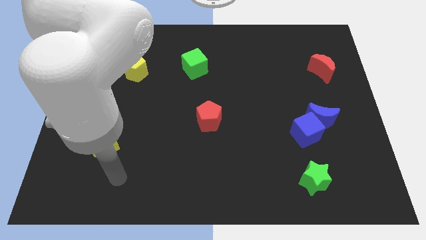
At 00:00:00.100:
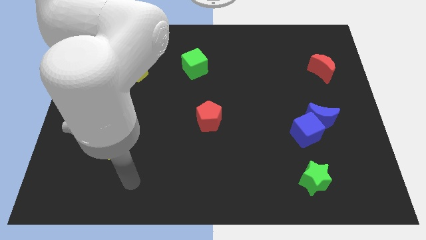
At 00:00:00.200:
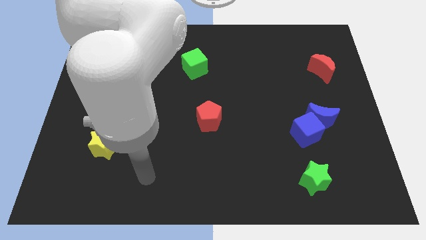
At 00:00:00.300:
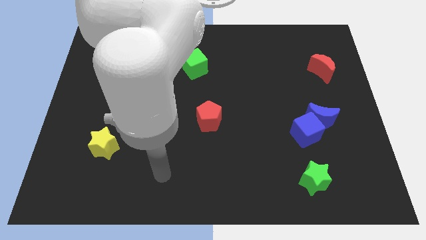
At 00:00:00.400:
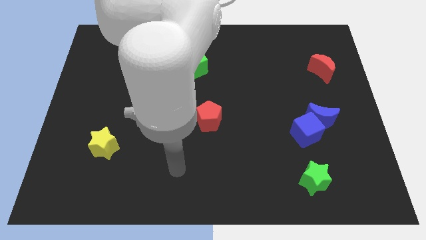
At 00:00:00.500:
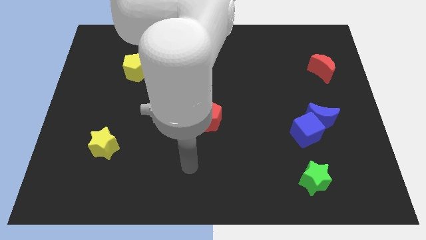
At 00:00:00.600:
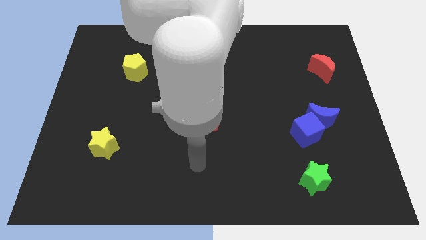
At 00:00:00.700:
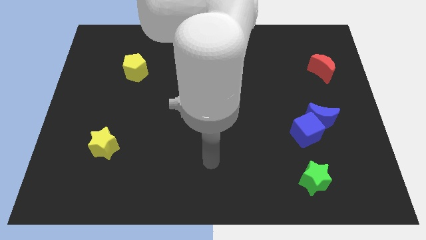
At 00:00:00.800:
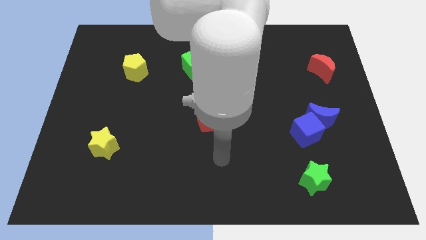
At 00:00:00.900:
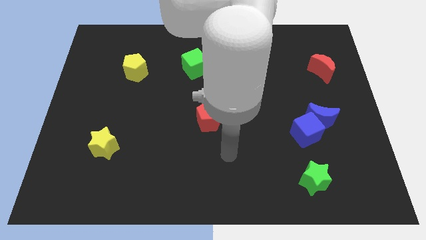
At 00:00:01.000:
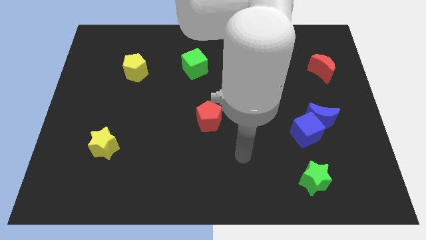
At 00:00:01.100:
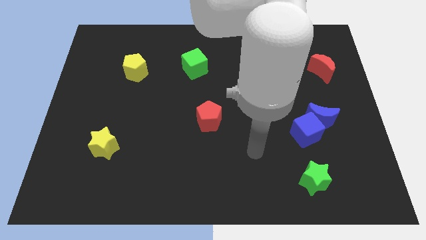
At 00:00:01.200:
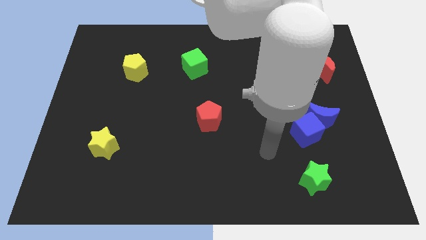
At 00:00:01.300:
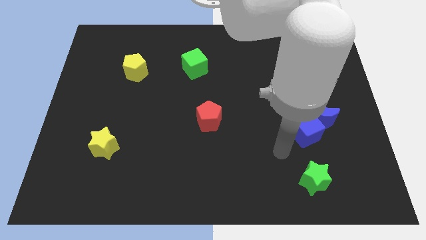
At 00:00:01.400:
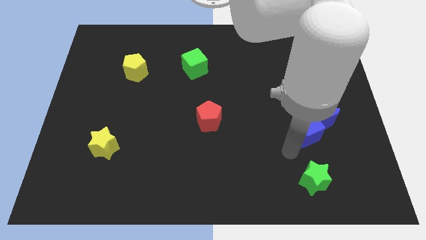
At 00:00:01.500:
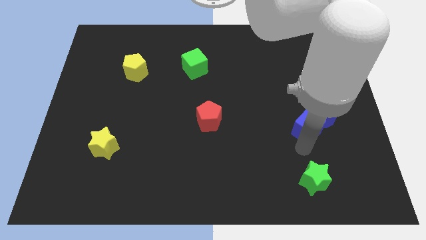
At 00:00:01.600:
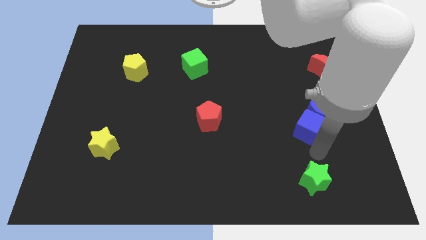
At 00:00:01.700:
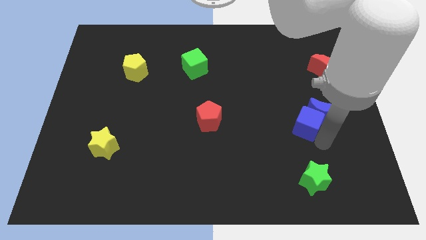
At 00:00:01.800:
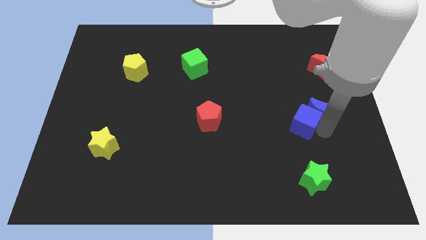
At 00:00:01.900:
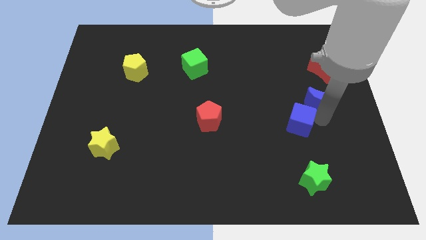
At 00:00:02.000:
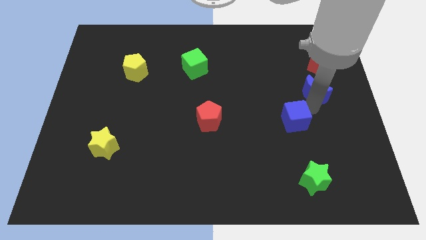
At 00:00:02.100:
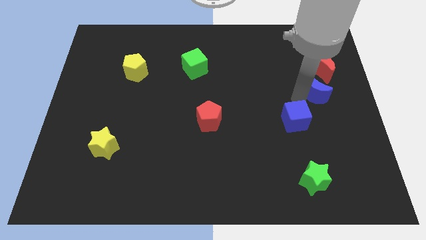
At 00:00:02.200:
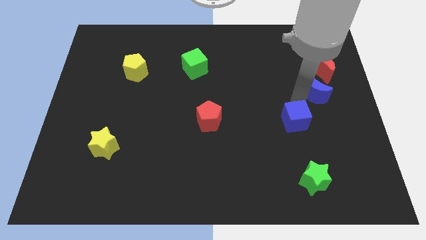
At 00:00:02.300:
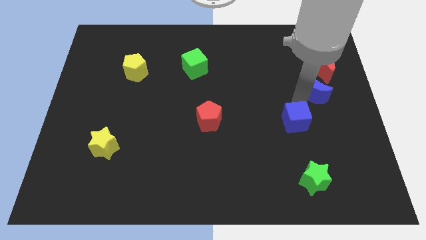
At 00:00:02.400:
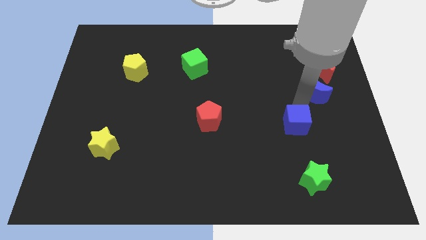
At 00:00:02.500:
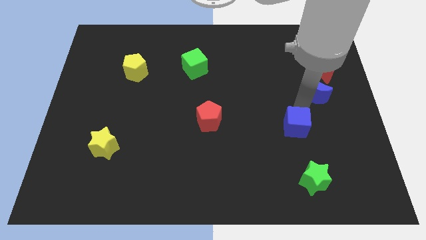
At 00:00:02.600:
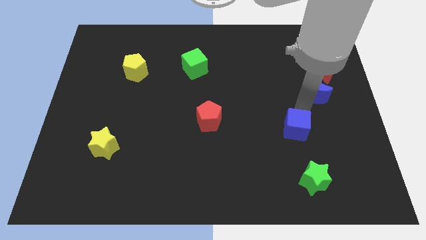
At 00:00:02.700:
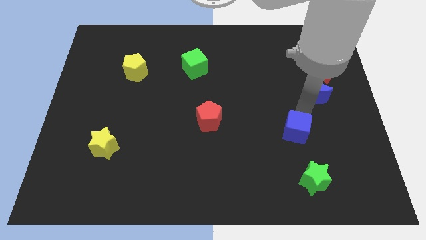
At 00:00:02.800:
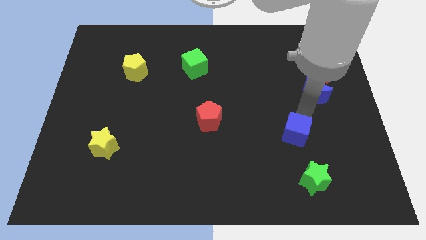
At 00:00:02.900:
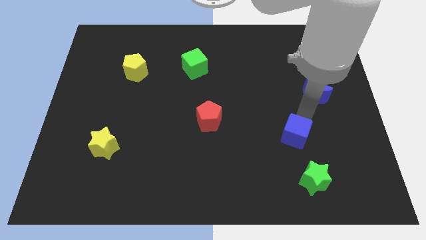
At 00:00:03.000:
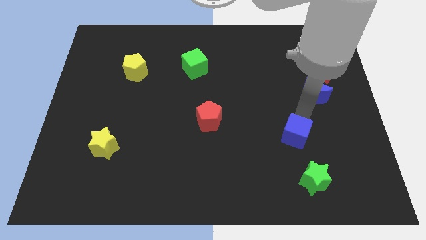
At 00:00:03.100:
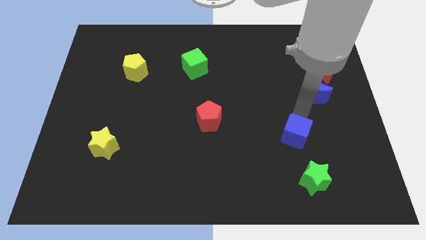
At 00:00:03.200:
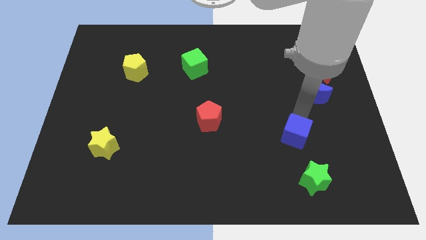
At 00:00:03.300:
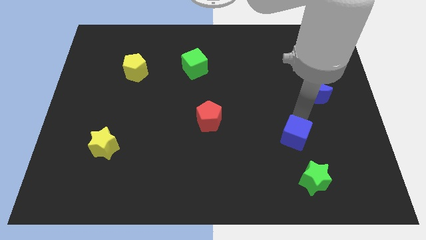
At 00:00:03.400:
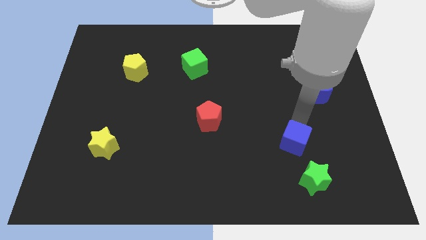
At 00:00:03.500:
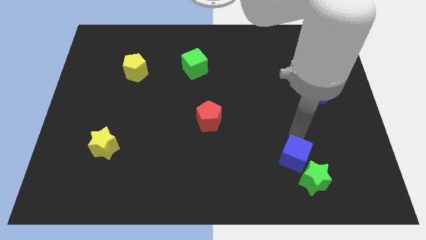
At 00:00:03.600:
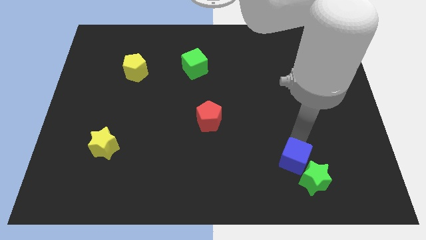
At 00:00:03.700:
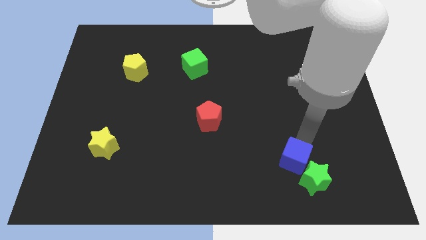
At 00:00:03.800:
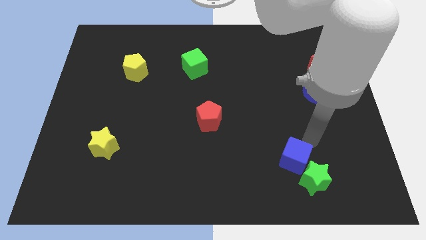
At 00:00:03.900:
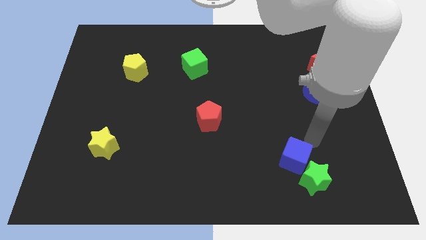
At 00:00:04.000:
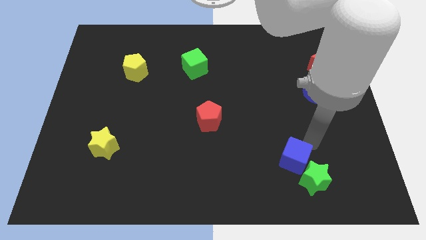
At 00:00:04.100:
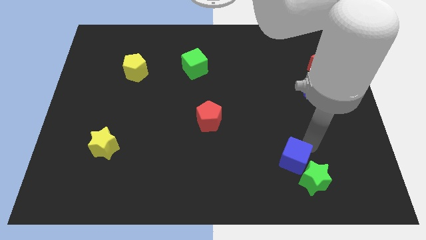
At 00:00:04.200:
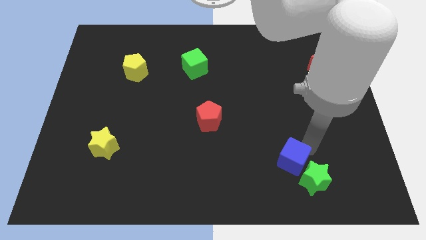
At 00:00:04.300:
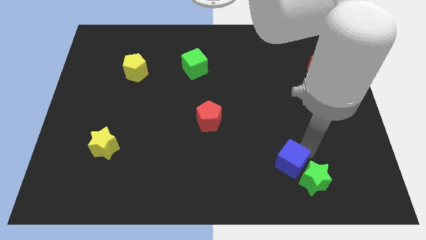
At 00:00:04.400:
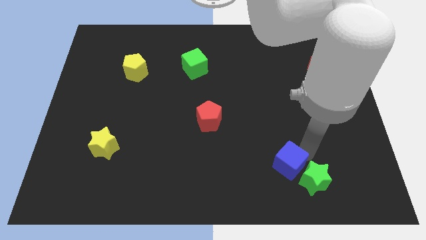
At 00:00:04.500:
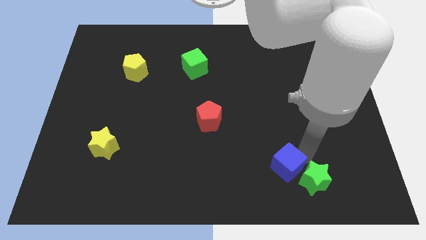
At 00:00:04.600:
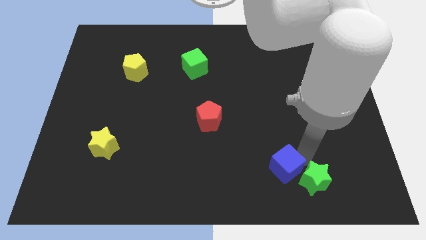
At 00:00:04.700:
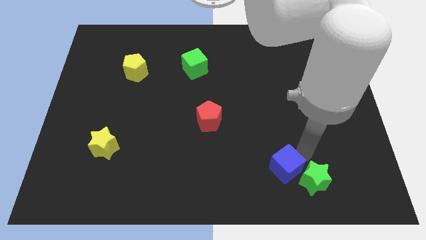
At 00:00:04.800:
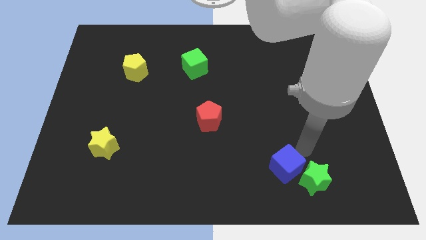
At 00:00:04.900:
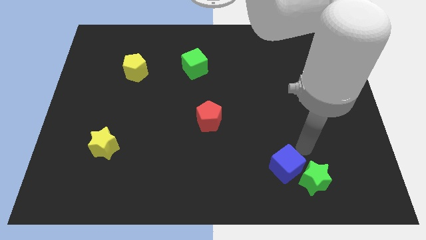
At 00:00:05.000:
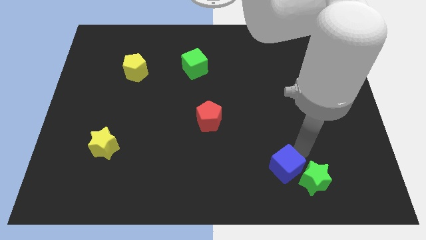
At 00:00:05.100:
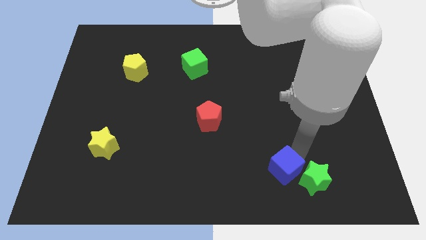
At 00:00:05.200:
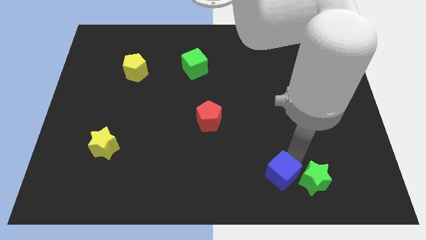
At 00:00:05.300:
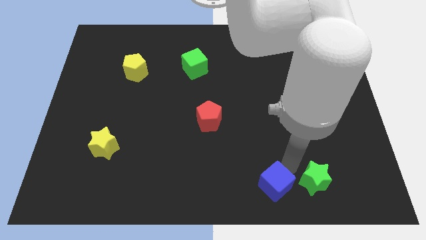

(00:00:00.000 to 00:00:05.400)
move the blue cube to the bottom

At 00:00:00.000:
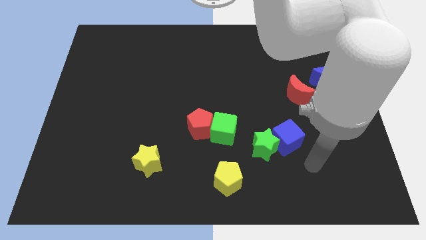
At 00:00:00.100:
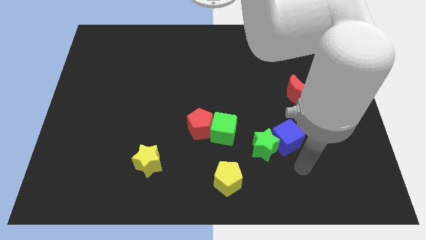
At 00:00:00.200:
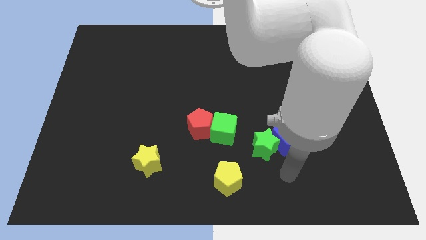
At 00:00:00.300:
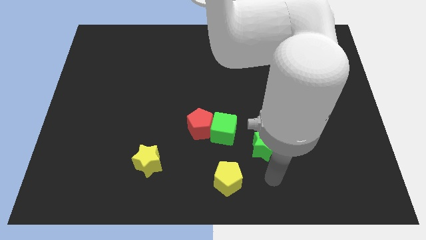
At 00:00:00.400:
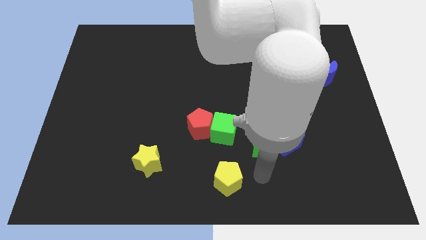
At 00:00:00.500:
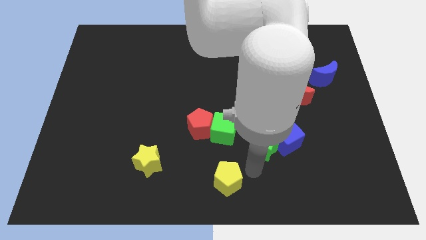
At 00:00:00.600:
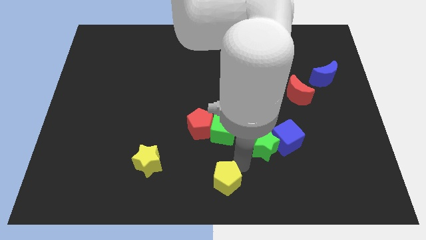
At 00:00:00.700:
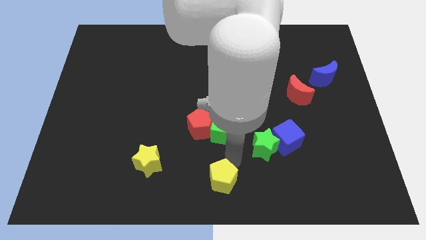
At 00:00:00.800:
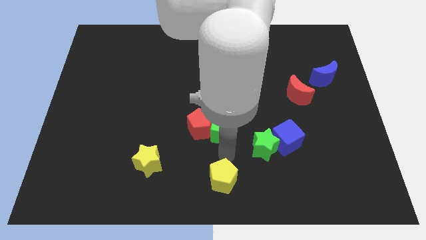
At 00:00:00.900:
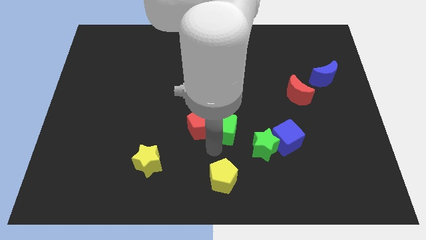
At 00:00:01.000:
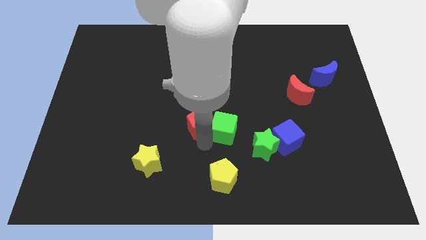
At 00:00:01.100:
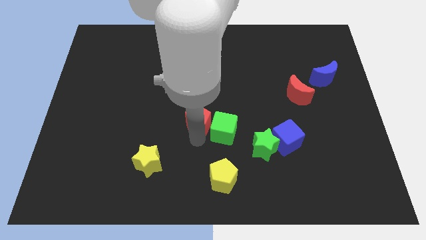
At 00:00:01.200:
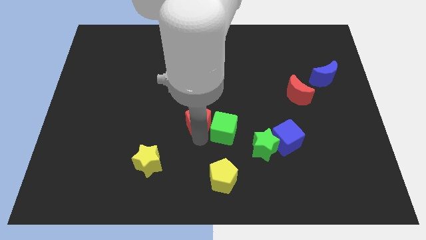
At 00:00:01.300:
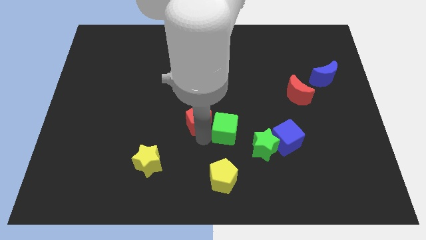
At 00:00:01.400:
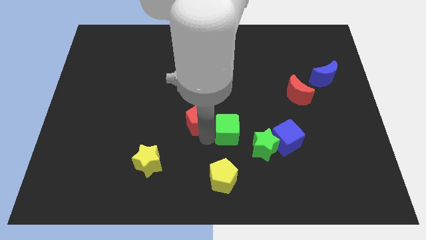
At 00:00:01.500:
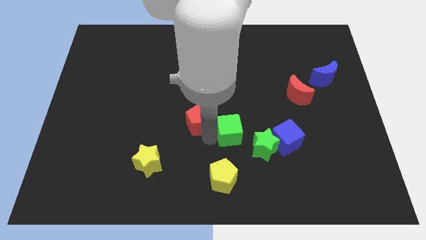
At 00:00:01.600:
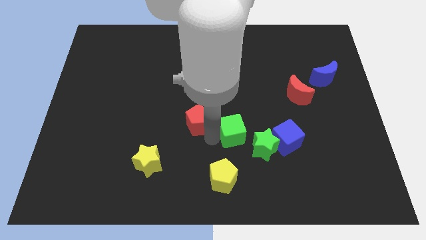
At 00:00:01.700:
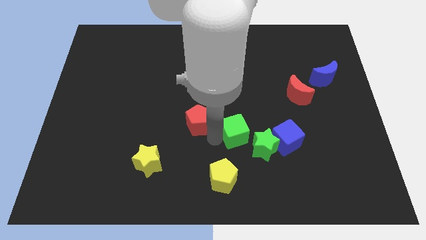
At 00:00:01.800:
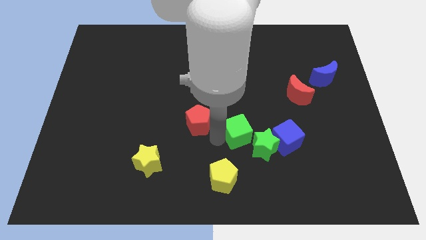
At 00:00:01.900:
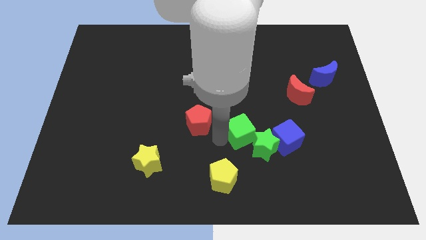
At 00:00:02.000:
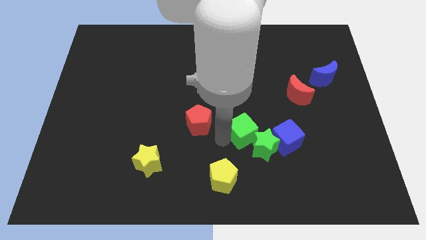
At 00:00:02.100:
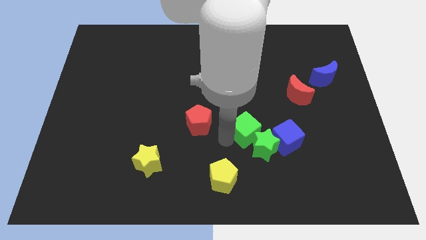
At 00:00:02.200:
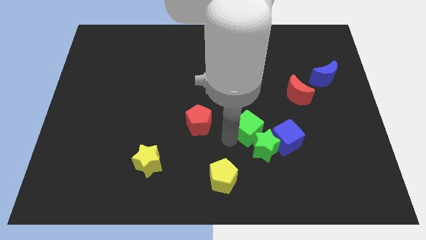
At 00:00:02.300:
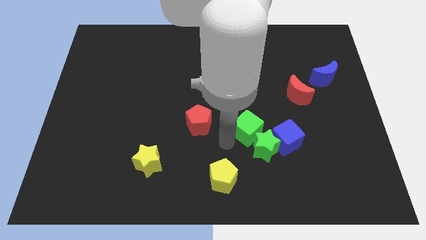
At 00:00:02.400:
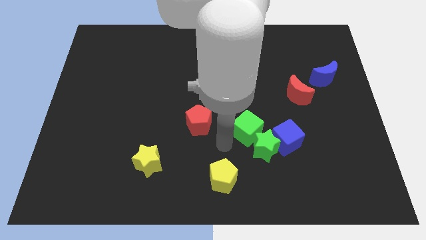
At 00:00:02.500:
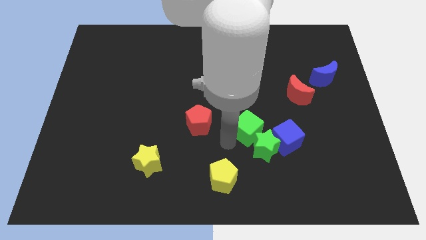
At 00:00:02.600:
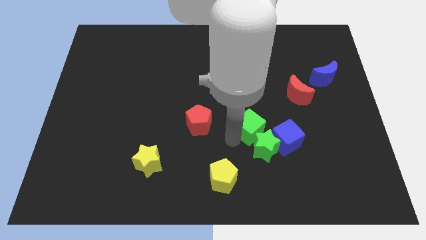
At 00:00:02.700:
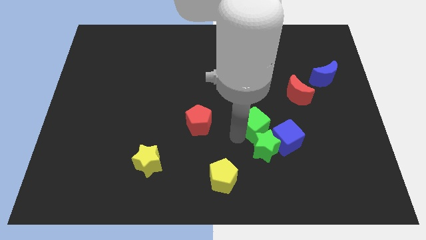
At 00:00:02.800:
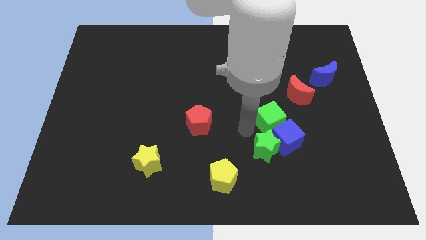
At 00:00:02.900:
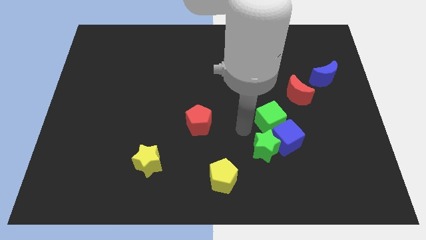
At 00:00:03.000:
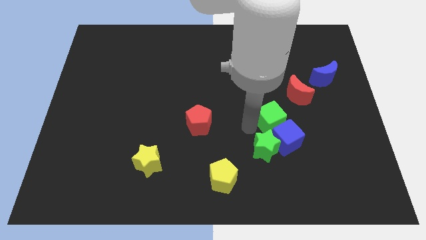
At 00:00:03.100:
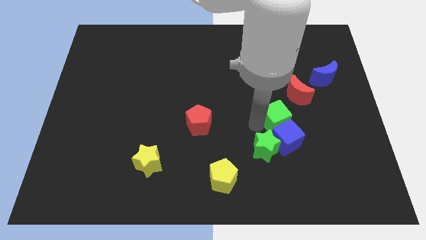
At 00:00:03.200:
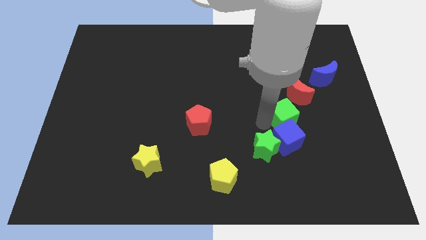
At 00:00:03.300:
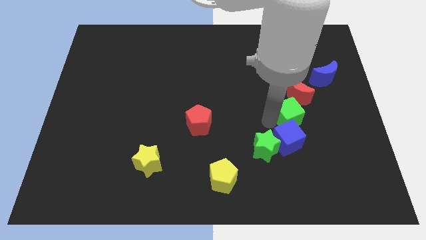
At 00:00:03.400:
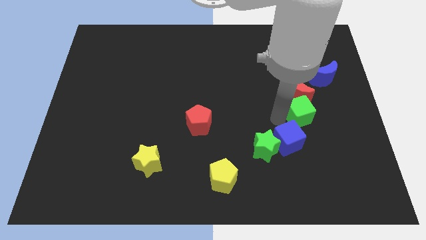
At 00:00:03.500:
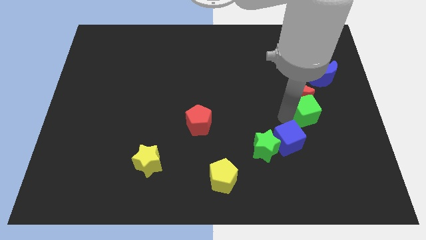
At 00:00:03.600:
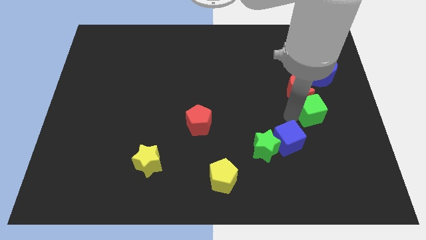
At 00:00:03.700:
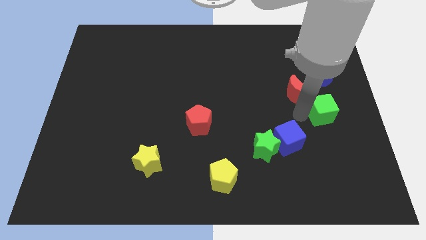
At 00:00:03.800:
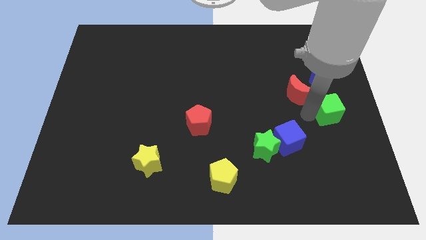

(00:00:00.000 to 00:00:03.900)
put the green cube to the right side of the board
